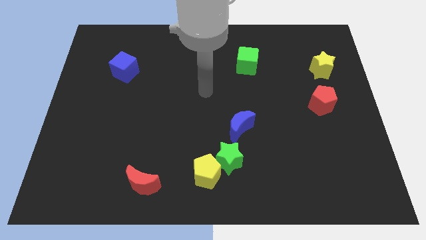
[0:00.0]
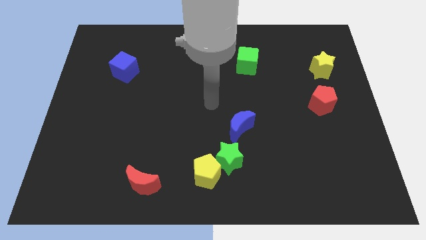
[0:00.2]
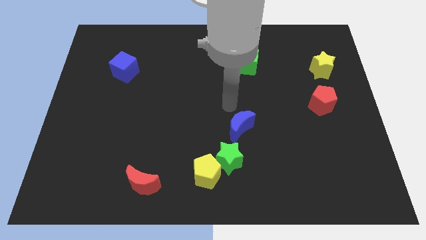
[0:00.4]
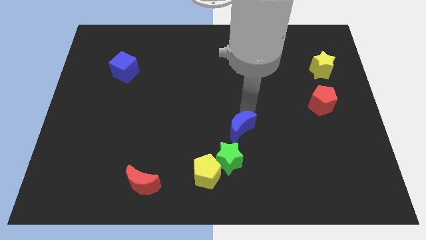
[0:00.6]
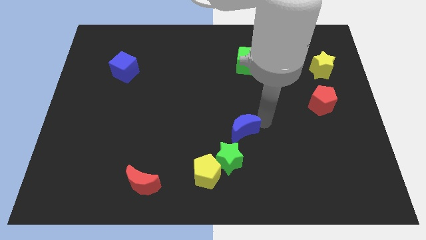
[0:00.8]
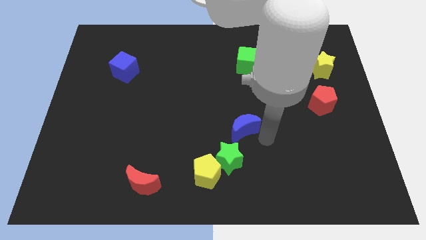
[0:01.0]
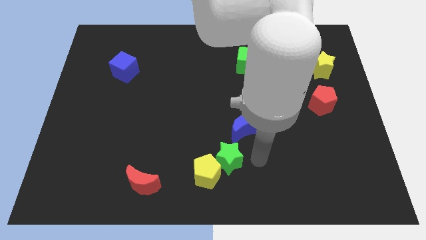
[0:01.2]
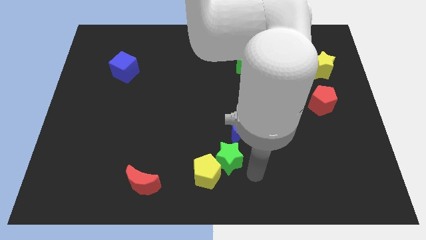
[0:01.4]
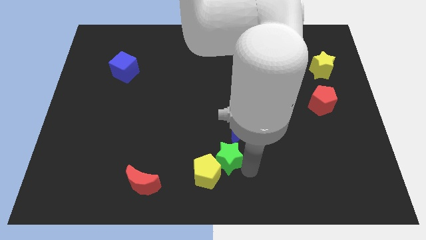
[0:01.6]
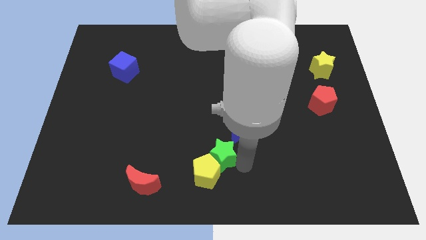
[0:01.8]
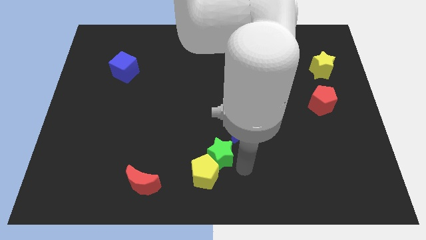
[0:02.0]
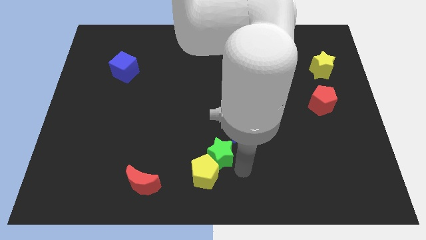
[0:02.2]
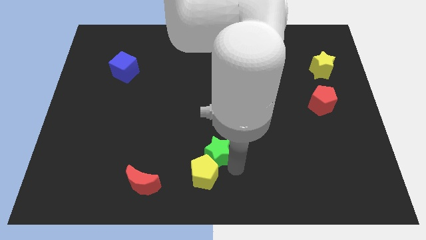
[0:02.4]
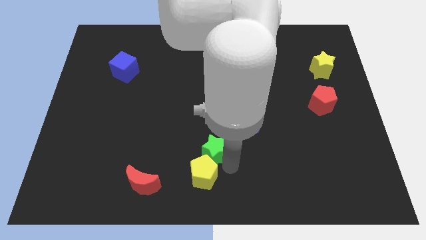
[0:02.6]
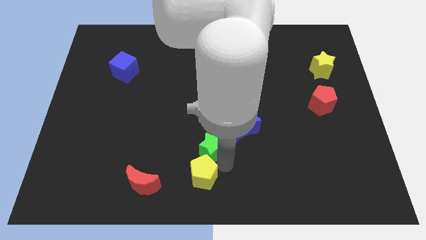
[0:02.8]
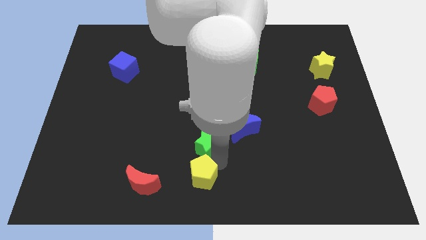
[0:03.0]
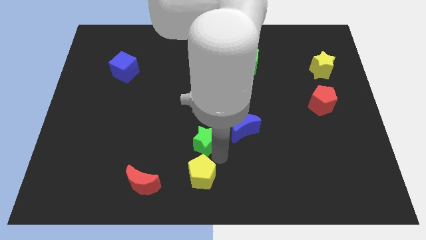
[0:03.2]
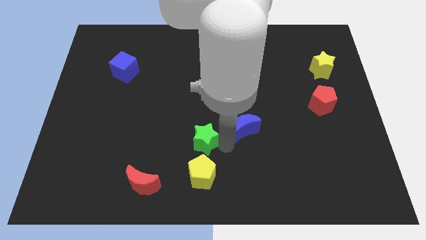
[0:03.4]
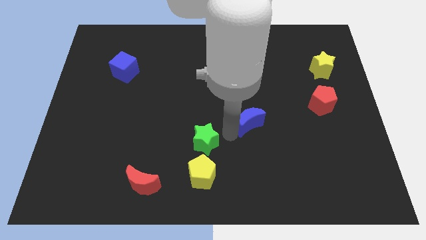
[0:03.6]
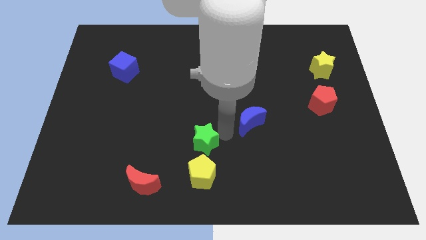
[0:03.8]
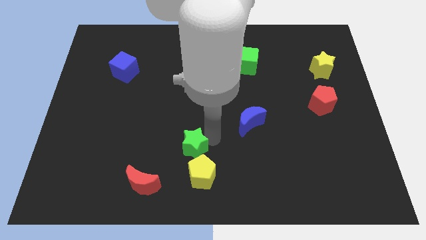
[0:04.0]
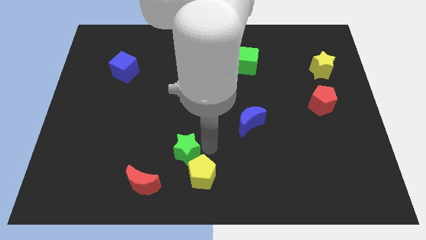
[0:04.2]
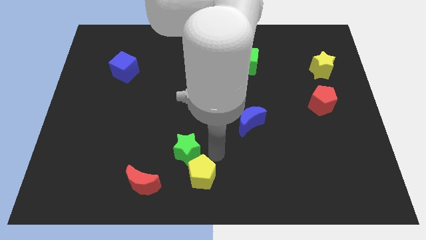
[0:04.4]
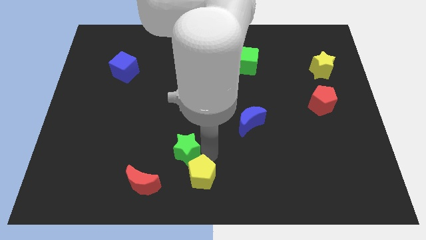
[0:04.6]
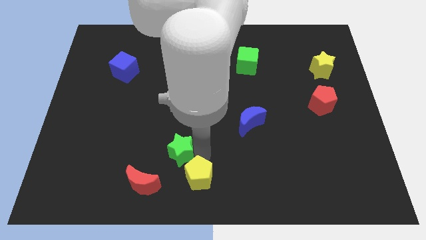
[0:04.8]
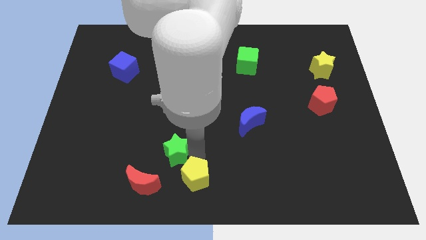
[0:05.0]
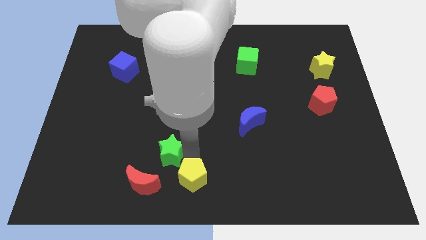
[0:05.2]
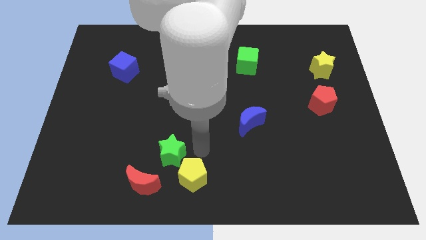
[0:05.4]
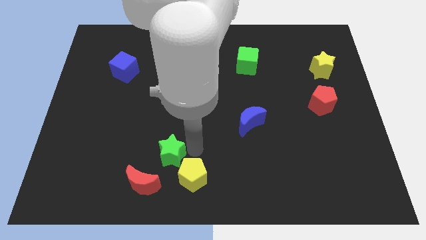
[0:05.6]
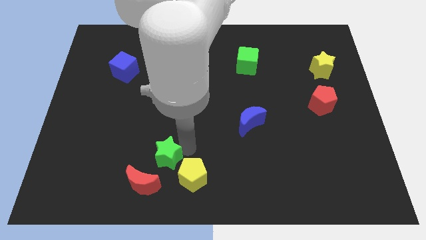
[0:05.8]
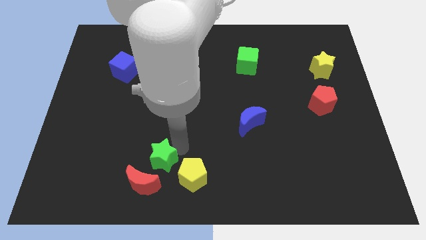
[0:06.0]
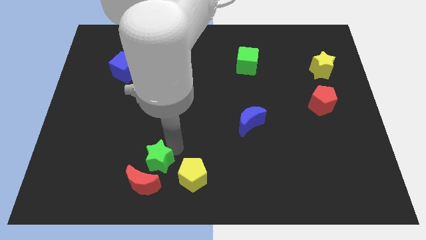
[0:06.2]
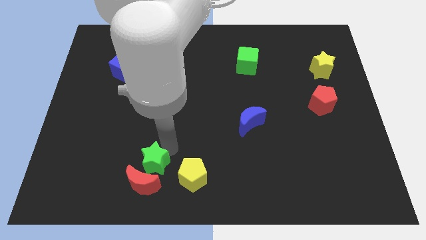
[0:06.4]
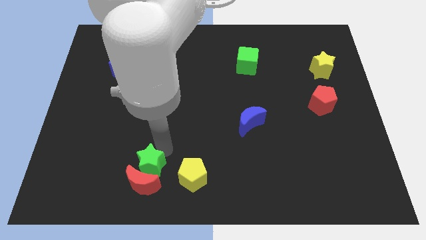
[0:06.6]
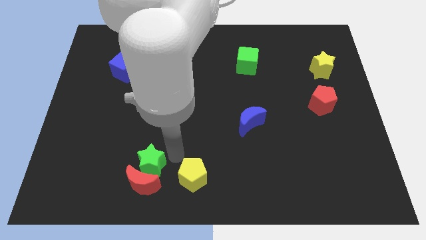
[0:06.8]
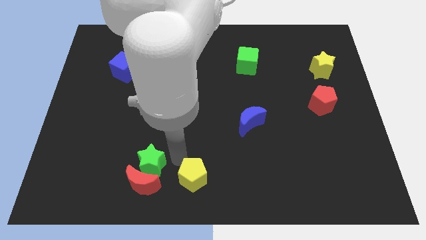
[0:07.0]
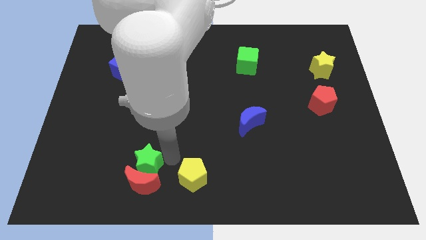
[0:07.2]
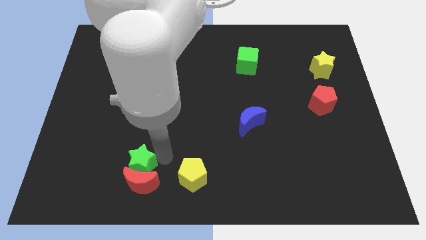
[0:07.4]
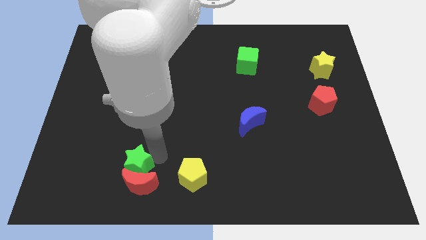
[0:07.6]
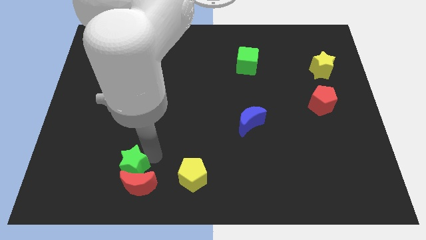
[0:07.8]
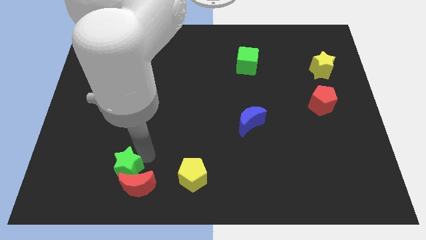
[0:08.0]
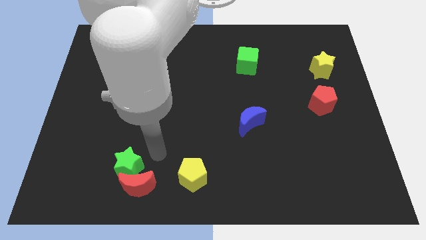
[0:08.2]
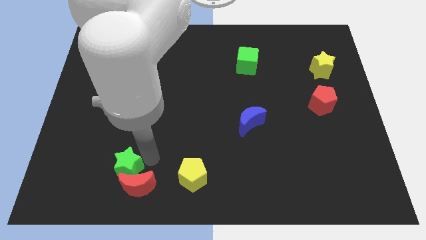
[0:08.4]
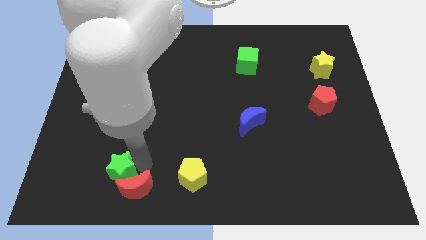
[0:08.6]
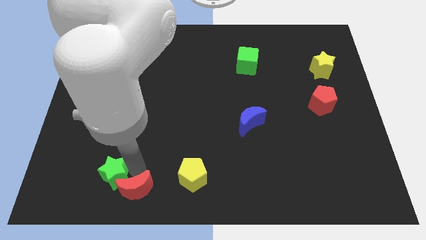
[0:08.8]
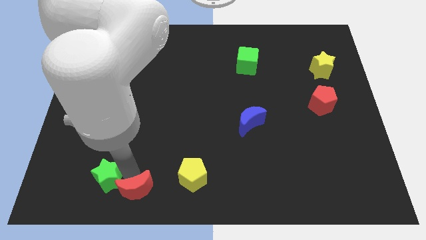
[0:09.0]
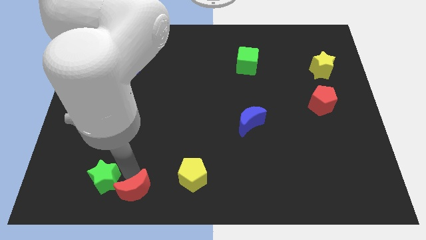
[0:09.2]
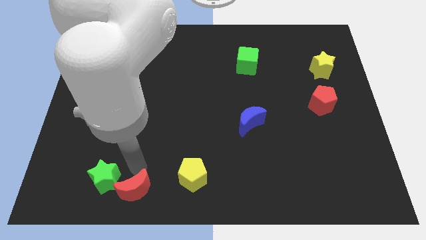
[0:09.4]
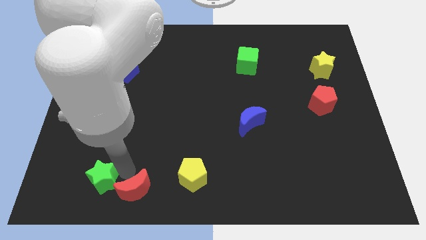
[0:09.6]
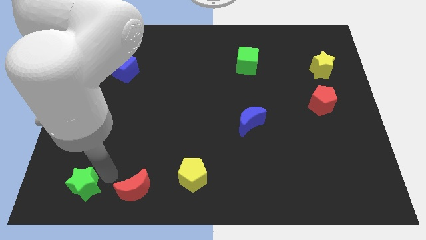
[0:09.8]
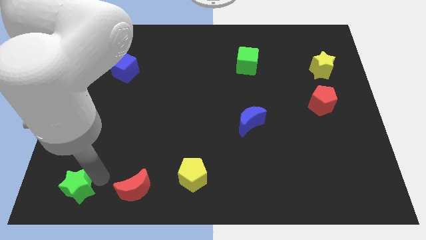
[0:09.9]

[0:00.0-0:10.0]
move the green star to the bottom left of the board

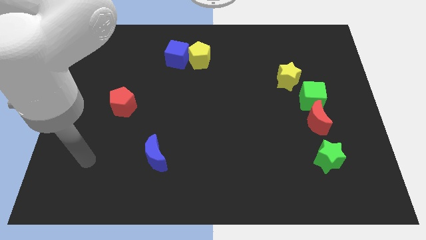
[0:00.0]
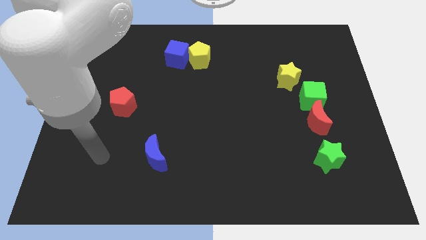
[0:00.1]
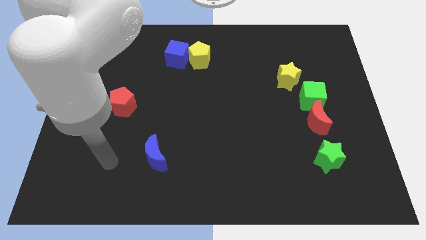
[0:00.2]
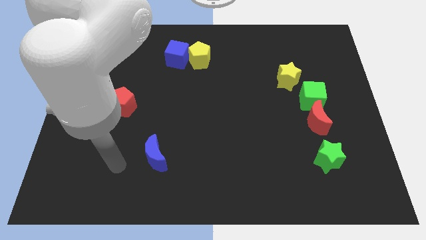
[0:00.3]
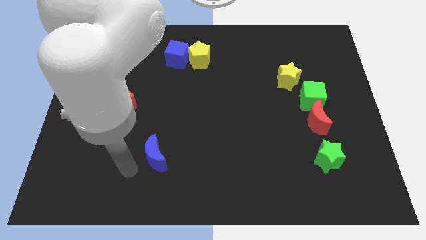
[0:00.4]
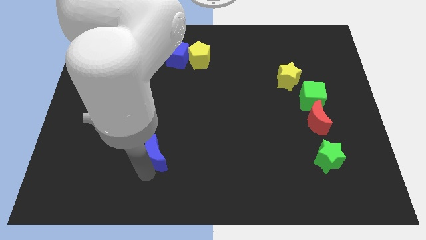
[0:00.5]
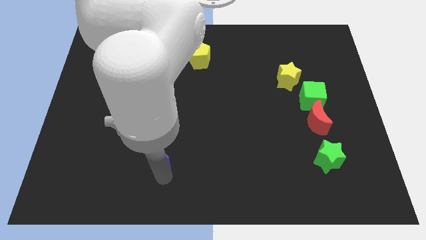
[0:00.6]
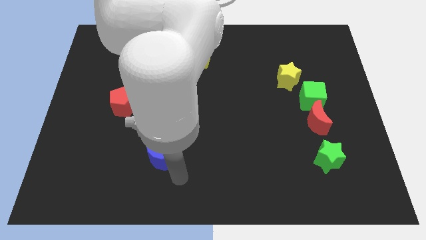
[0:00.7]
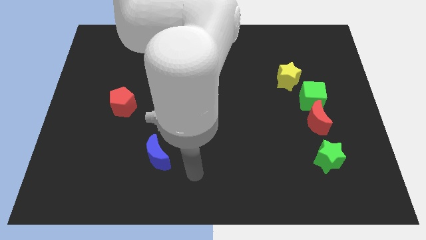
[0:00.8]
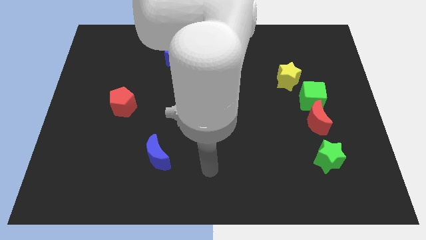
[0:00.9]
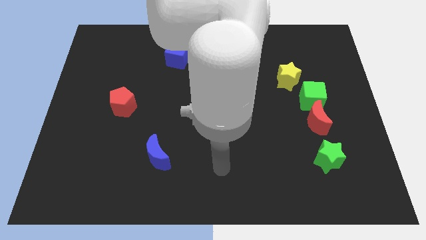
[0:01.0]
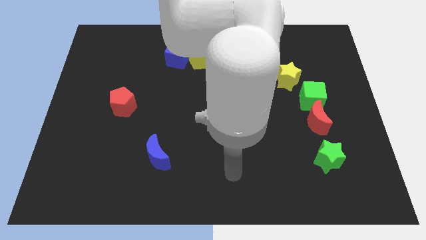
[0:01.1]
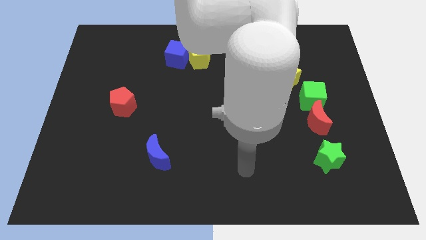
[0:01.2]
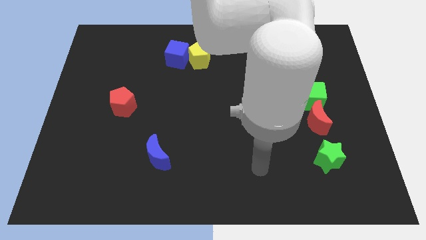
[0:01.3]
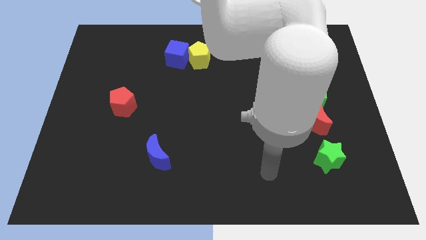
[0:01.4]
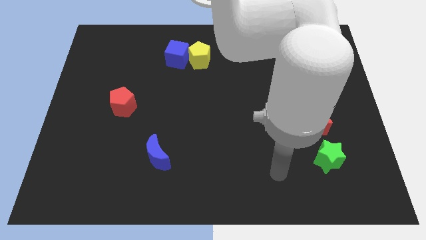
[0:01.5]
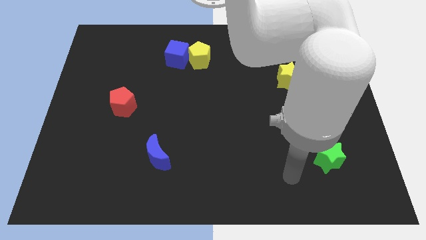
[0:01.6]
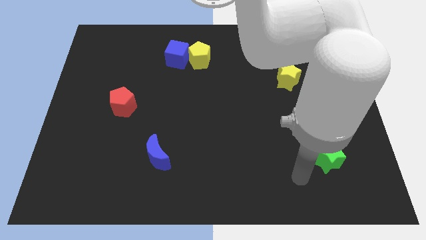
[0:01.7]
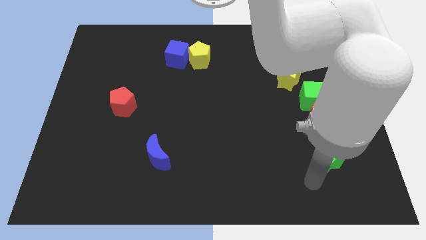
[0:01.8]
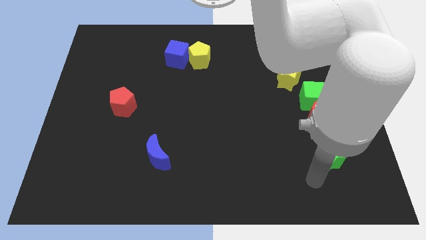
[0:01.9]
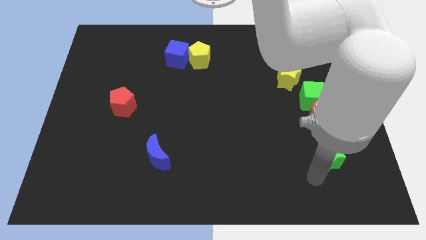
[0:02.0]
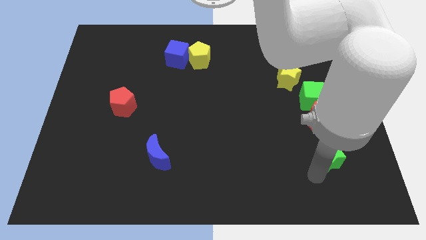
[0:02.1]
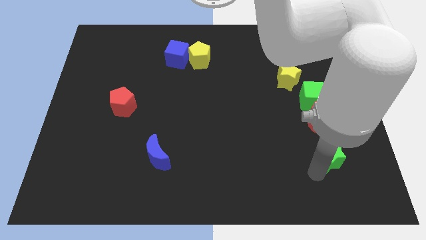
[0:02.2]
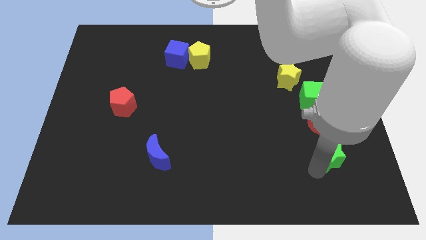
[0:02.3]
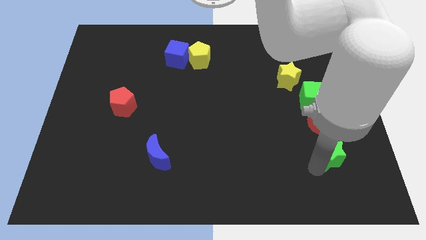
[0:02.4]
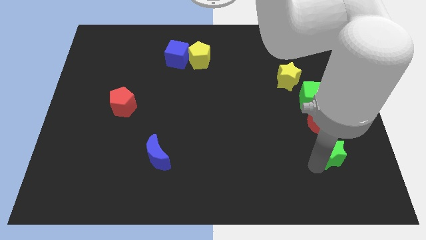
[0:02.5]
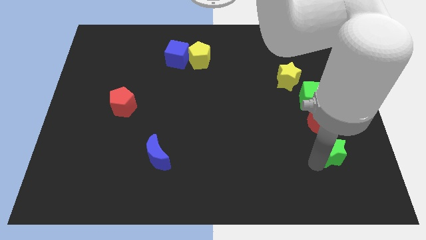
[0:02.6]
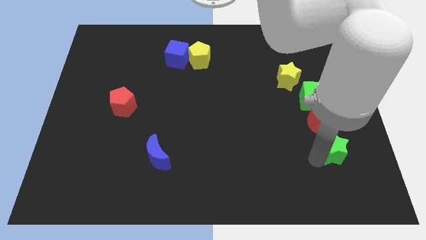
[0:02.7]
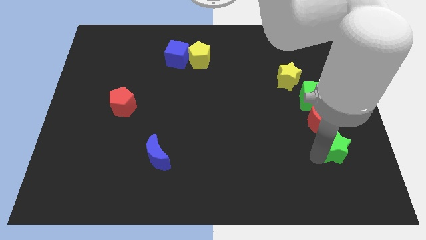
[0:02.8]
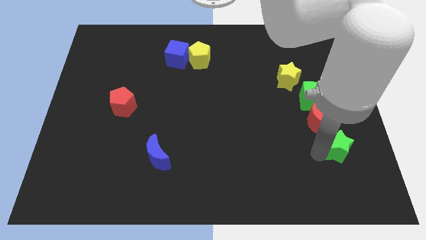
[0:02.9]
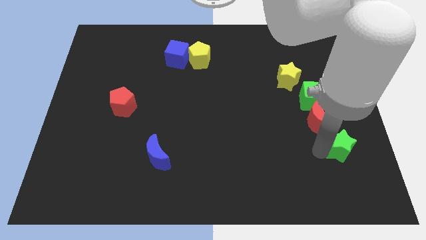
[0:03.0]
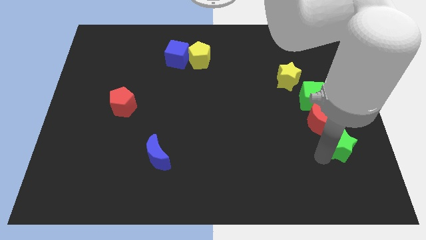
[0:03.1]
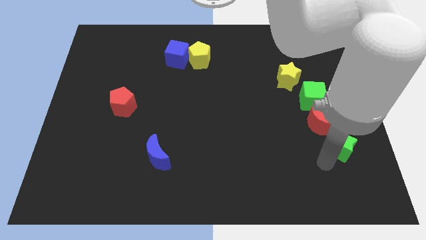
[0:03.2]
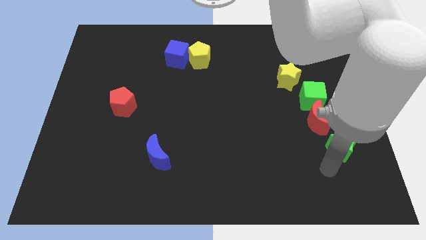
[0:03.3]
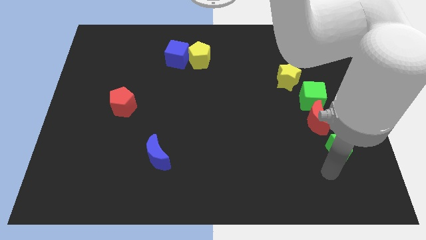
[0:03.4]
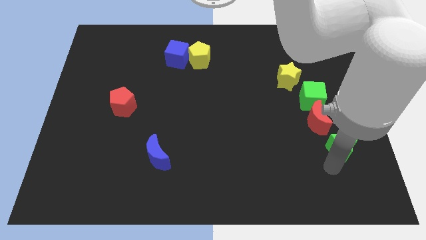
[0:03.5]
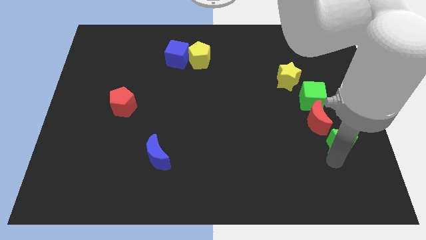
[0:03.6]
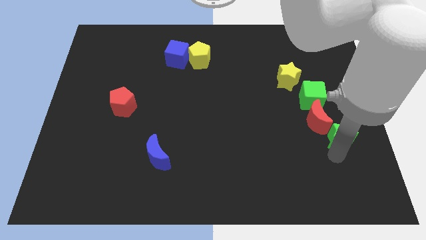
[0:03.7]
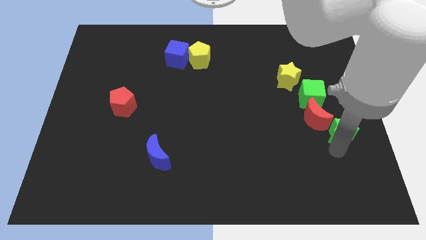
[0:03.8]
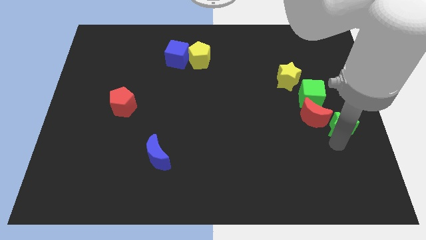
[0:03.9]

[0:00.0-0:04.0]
move the green star to the right side
